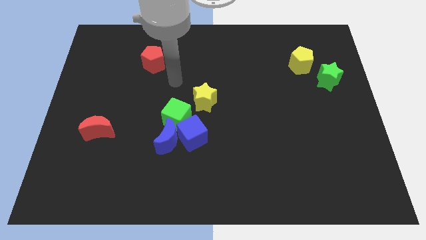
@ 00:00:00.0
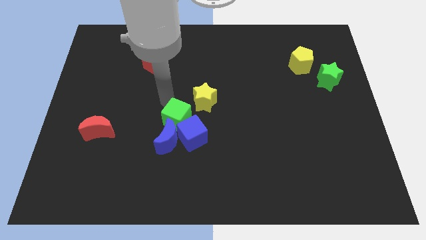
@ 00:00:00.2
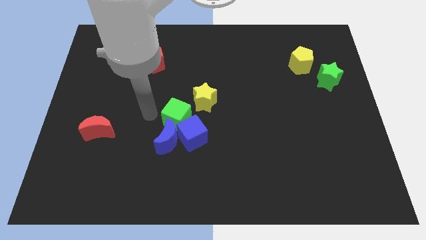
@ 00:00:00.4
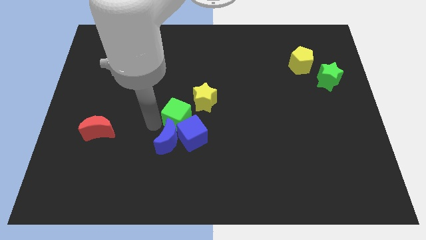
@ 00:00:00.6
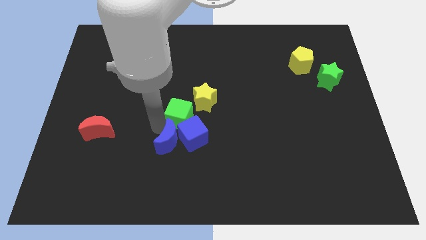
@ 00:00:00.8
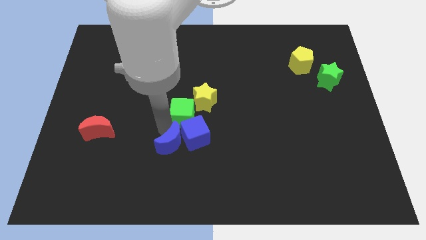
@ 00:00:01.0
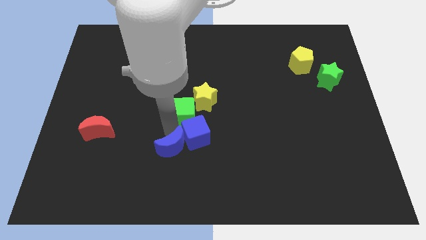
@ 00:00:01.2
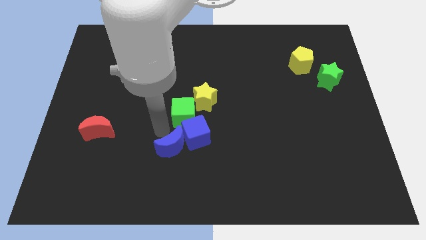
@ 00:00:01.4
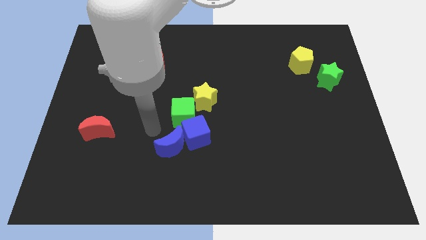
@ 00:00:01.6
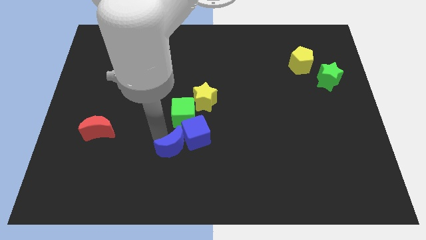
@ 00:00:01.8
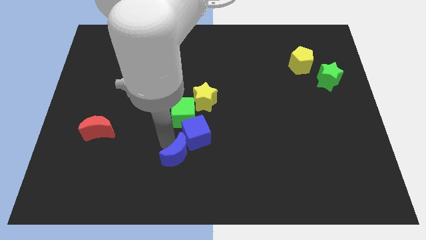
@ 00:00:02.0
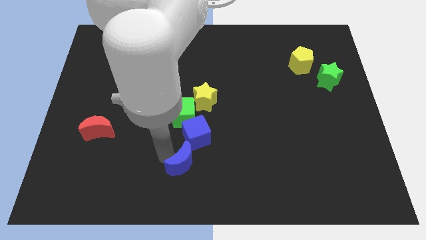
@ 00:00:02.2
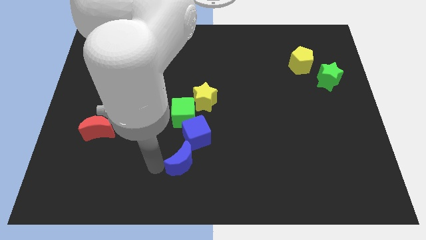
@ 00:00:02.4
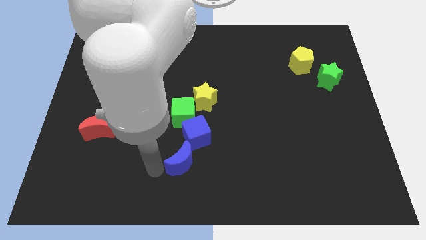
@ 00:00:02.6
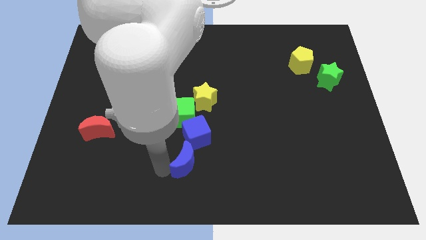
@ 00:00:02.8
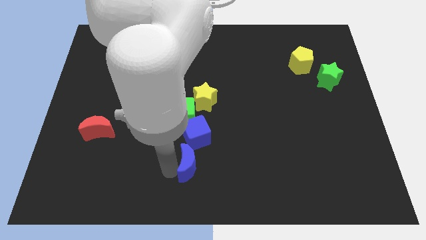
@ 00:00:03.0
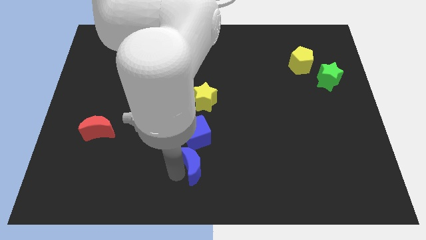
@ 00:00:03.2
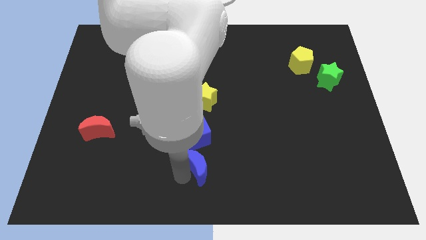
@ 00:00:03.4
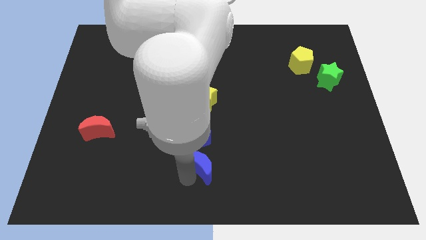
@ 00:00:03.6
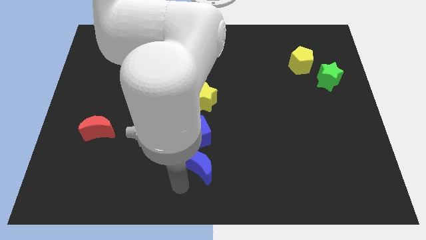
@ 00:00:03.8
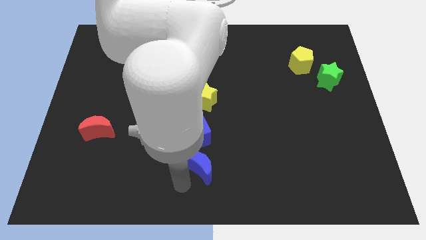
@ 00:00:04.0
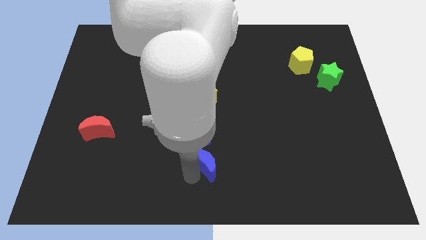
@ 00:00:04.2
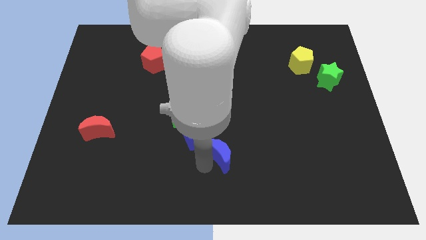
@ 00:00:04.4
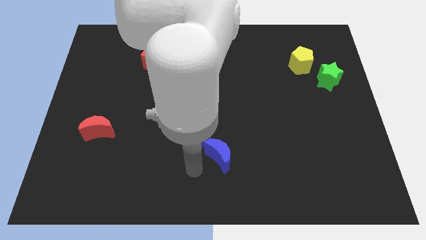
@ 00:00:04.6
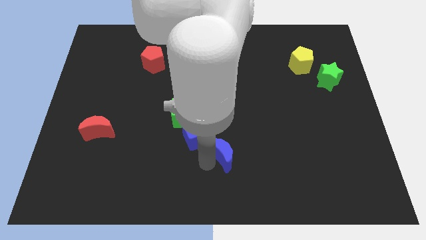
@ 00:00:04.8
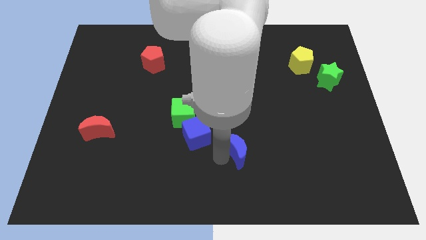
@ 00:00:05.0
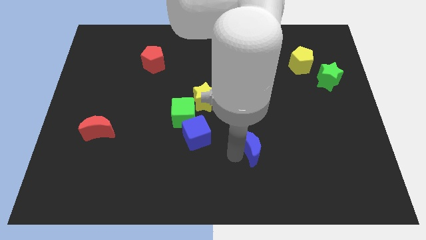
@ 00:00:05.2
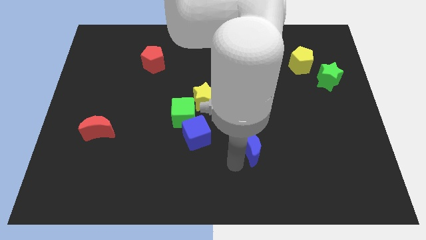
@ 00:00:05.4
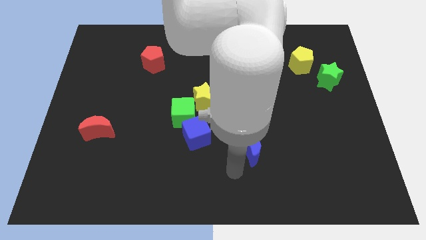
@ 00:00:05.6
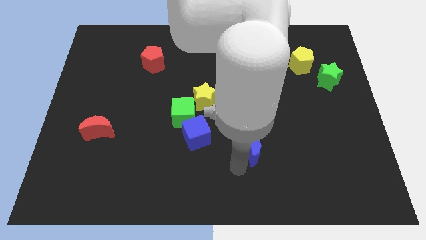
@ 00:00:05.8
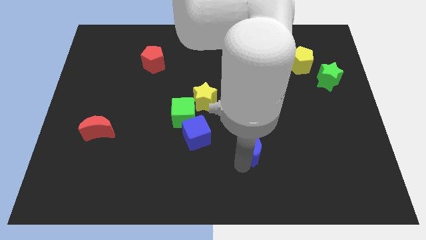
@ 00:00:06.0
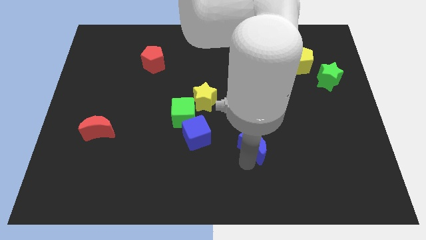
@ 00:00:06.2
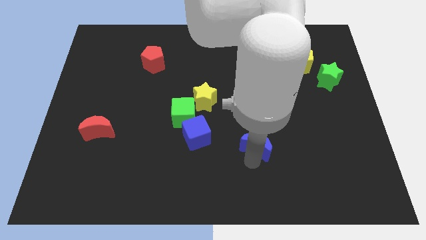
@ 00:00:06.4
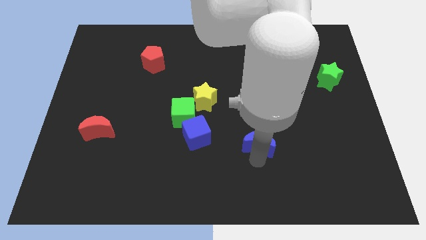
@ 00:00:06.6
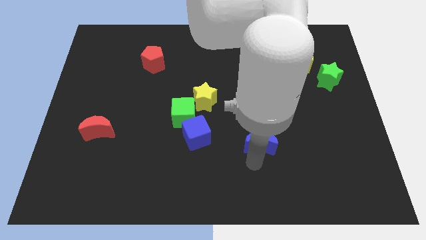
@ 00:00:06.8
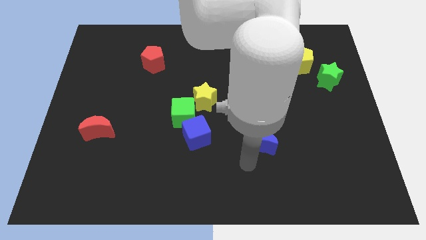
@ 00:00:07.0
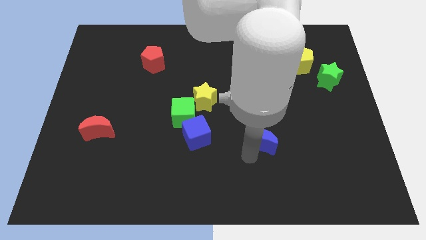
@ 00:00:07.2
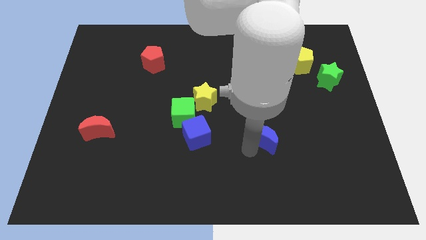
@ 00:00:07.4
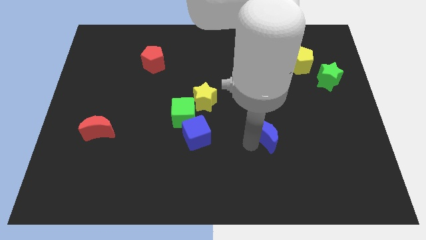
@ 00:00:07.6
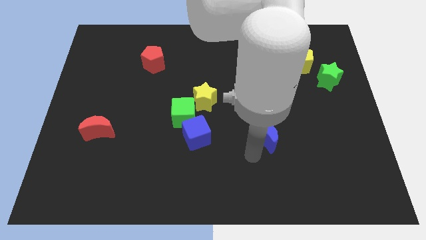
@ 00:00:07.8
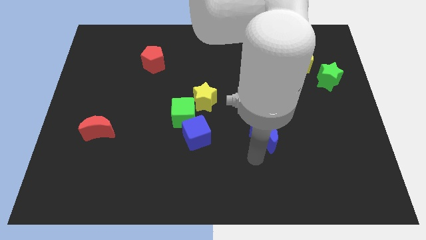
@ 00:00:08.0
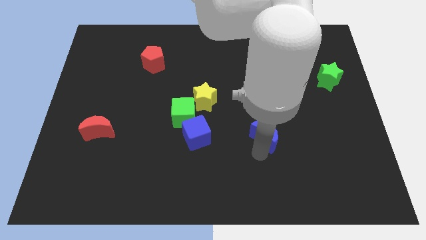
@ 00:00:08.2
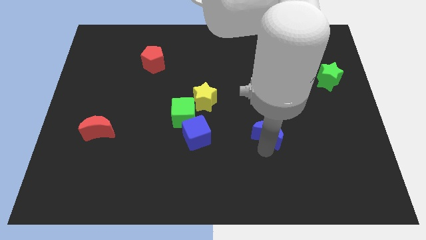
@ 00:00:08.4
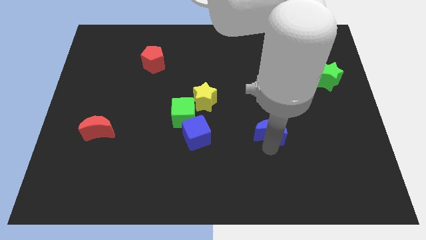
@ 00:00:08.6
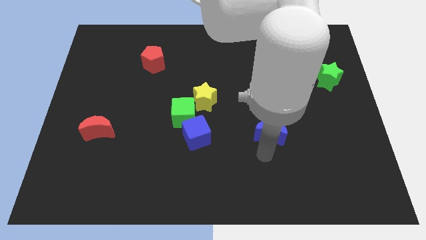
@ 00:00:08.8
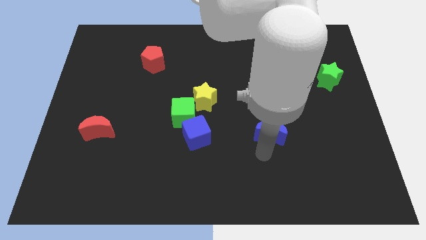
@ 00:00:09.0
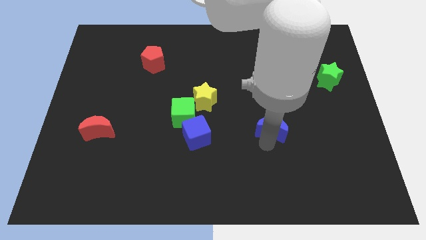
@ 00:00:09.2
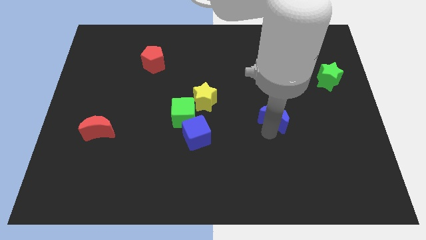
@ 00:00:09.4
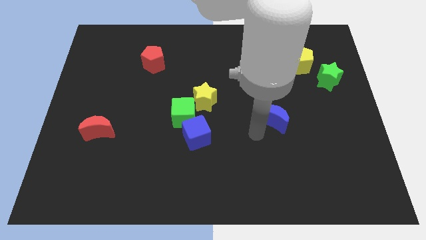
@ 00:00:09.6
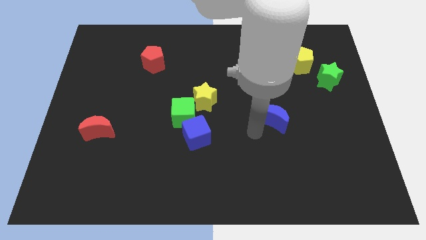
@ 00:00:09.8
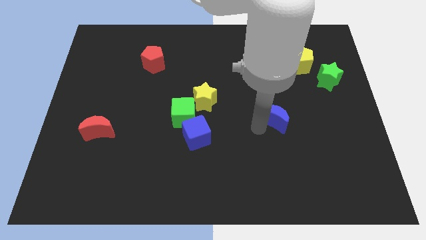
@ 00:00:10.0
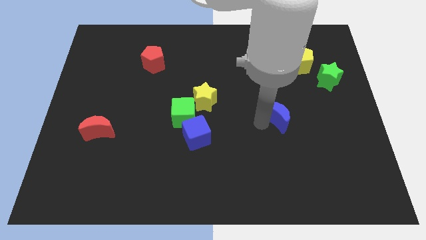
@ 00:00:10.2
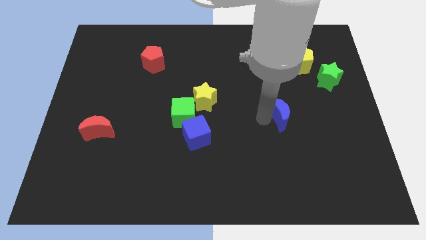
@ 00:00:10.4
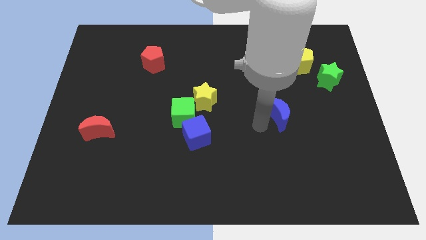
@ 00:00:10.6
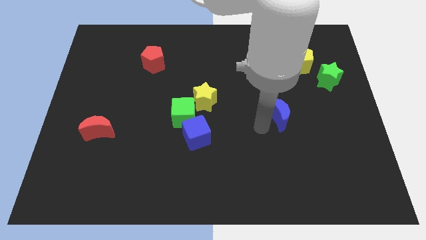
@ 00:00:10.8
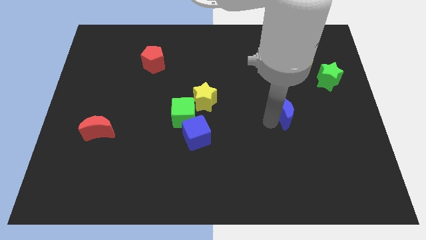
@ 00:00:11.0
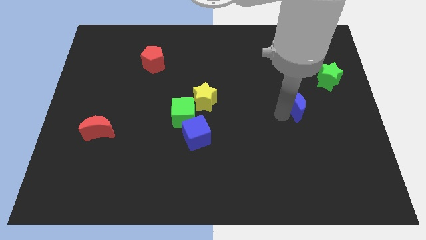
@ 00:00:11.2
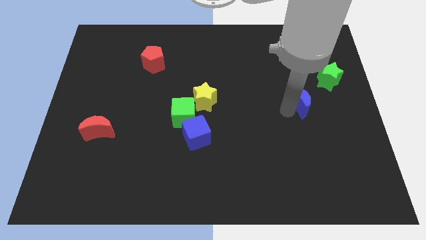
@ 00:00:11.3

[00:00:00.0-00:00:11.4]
move the blue moon diagonally down and to the left of the green star

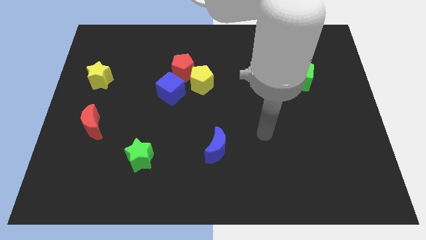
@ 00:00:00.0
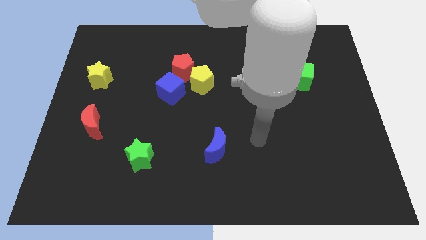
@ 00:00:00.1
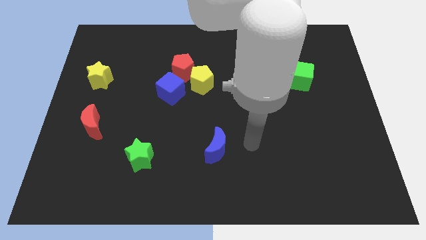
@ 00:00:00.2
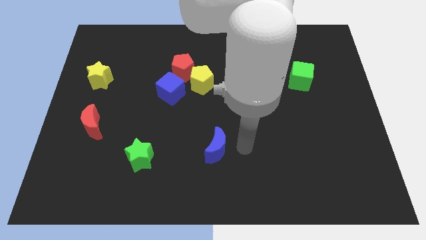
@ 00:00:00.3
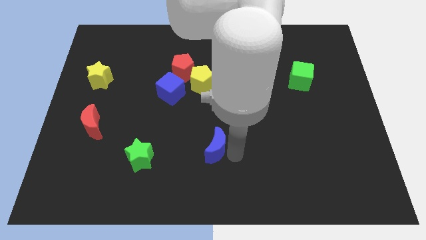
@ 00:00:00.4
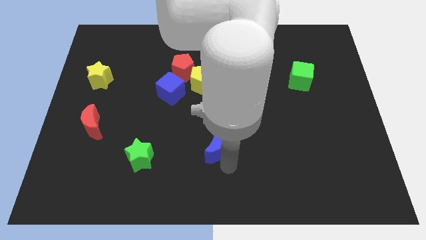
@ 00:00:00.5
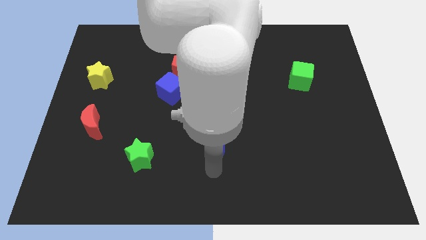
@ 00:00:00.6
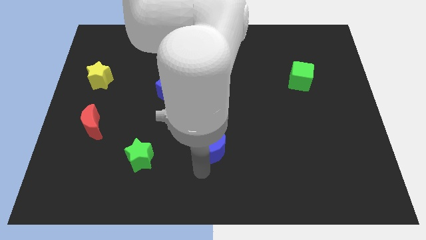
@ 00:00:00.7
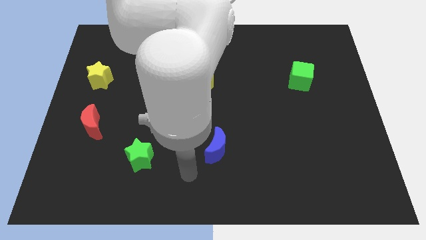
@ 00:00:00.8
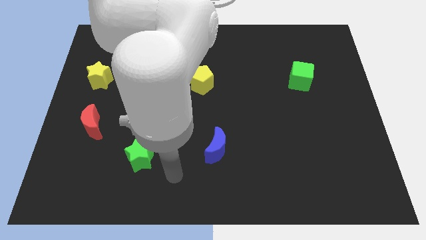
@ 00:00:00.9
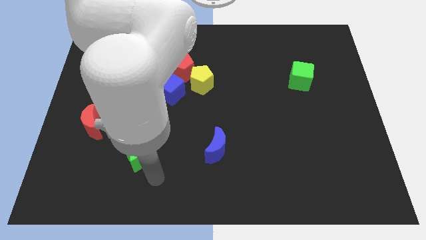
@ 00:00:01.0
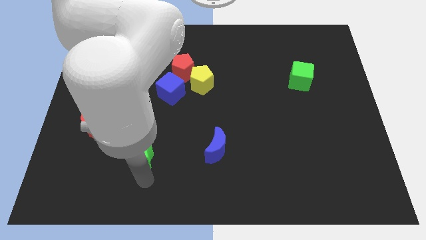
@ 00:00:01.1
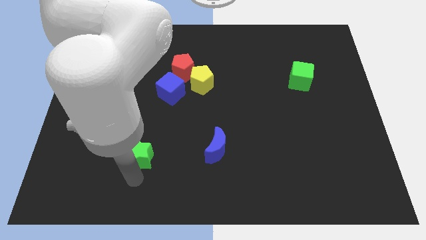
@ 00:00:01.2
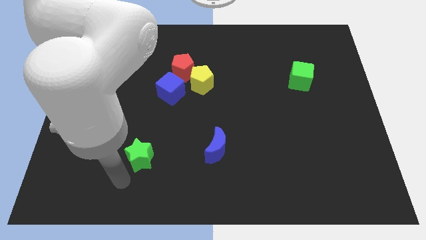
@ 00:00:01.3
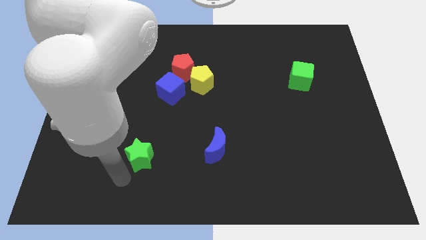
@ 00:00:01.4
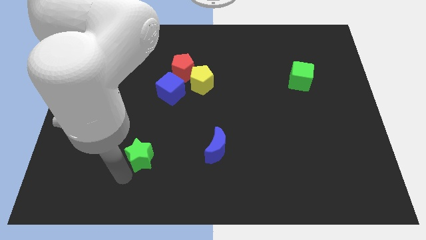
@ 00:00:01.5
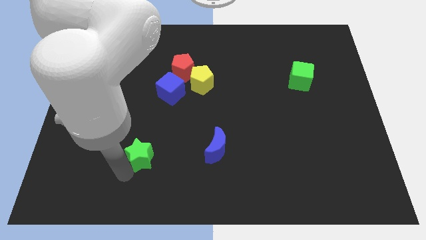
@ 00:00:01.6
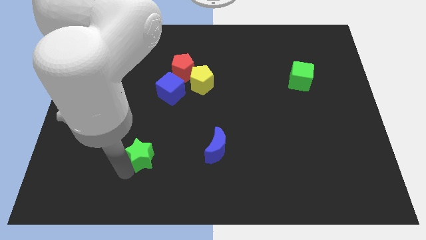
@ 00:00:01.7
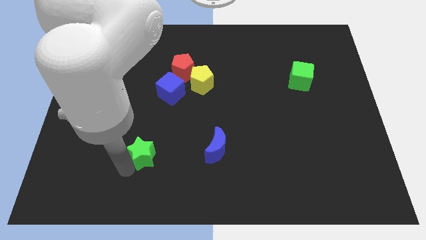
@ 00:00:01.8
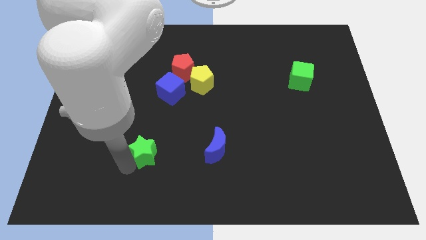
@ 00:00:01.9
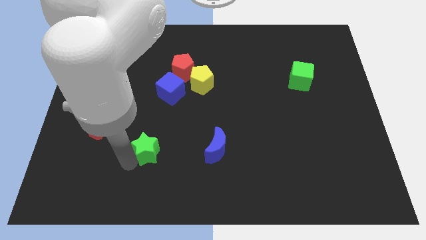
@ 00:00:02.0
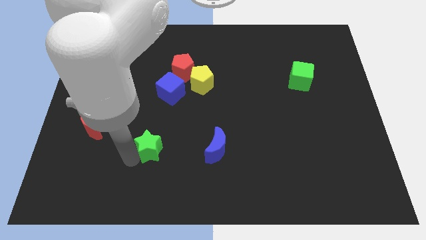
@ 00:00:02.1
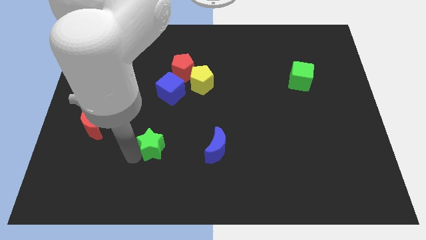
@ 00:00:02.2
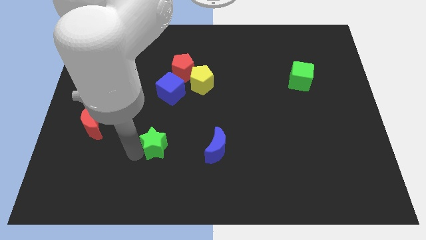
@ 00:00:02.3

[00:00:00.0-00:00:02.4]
push the green star below the blue cube
